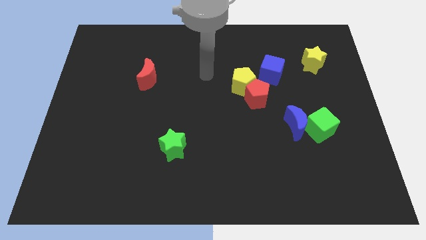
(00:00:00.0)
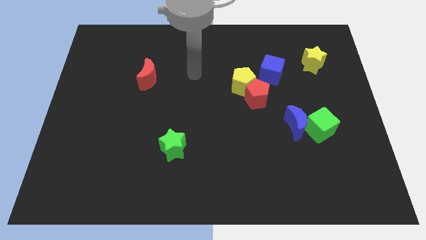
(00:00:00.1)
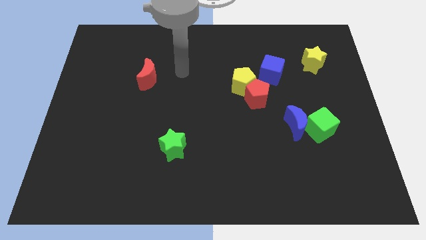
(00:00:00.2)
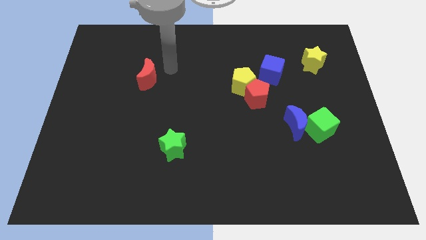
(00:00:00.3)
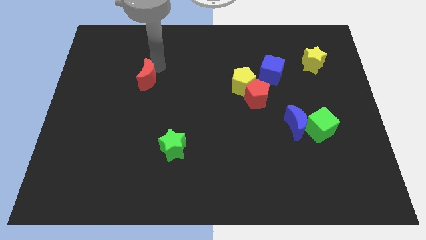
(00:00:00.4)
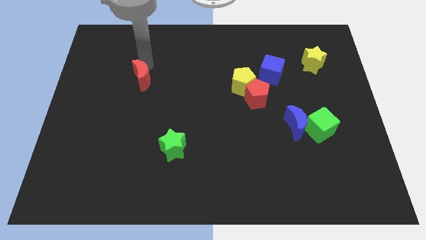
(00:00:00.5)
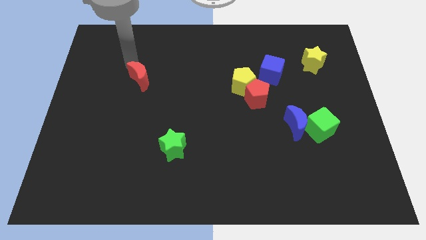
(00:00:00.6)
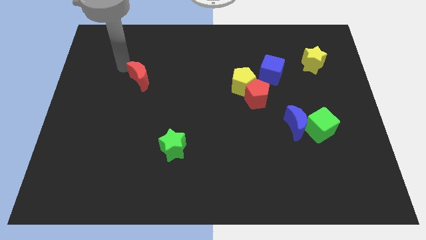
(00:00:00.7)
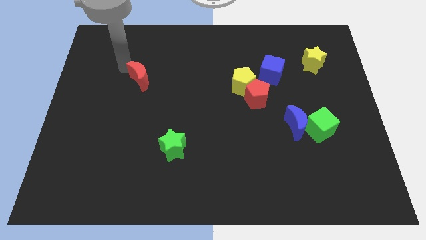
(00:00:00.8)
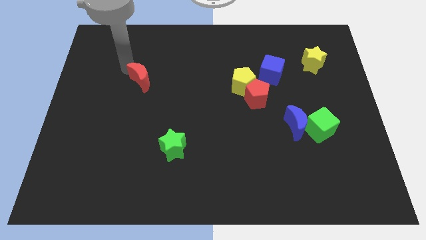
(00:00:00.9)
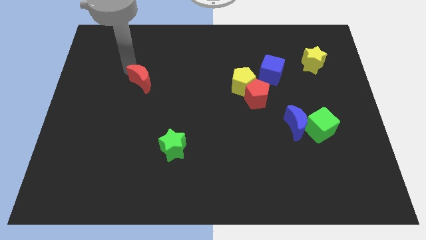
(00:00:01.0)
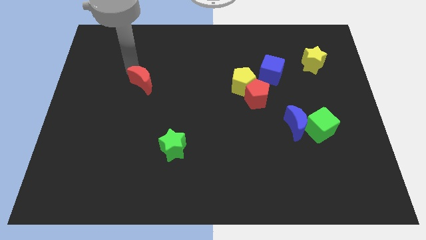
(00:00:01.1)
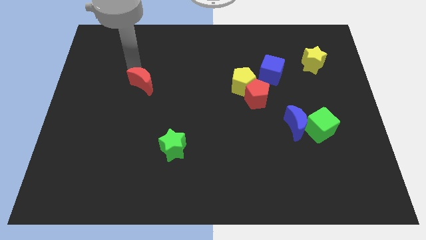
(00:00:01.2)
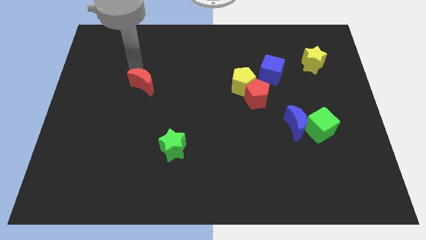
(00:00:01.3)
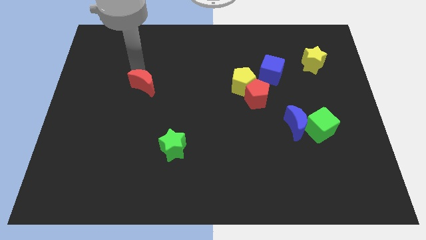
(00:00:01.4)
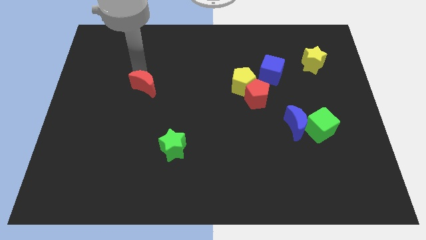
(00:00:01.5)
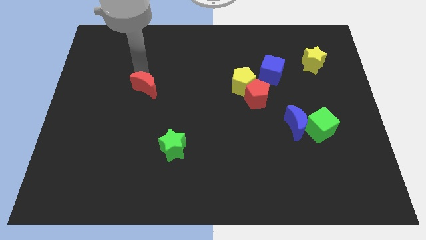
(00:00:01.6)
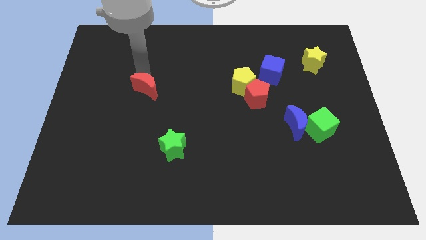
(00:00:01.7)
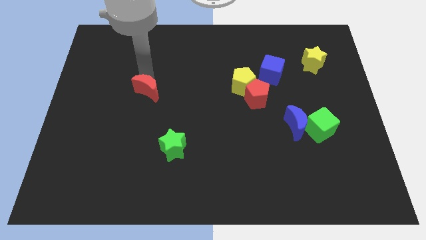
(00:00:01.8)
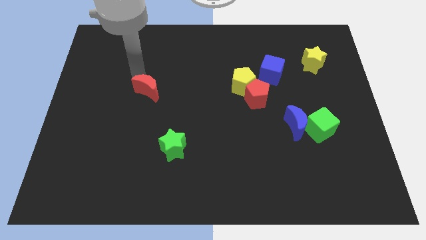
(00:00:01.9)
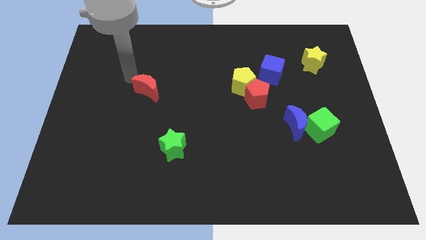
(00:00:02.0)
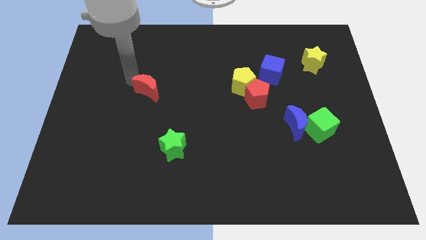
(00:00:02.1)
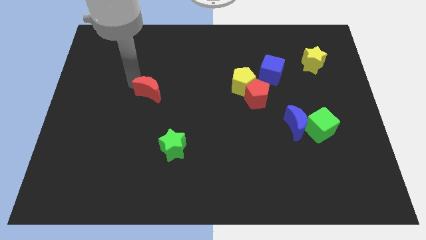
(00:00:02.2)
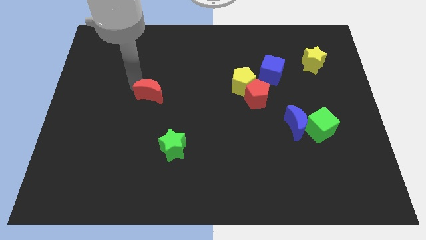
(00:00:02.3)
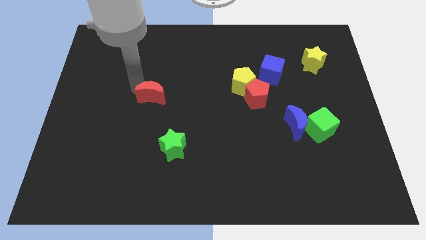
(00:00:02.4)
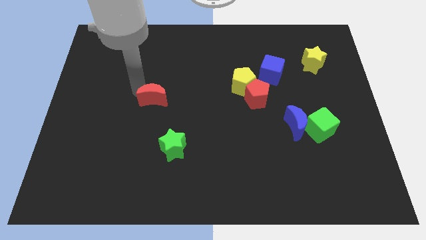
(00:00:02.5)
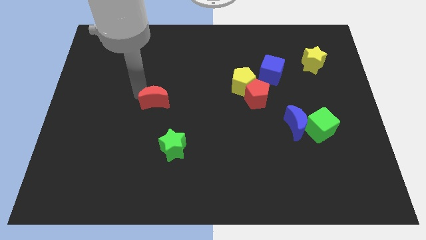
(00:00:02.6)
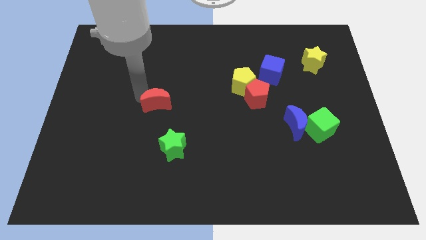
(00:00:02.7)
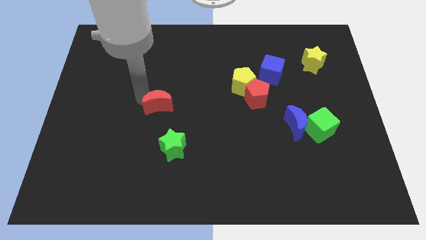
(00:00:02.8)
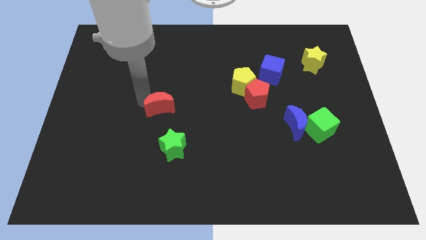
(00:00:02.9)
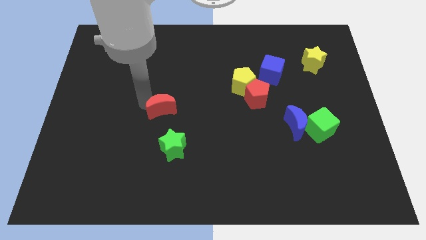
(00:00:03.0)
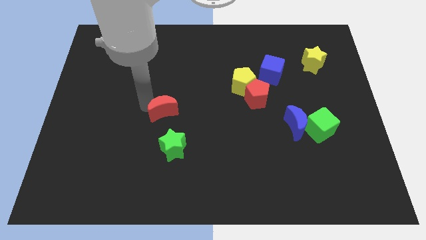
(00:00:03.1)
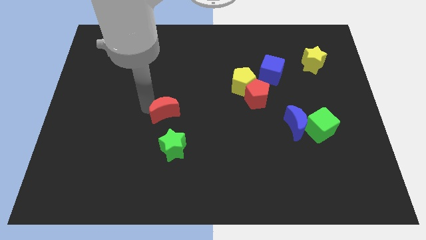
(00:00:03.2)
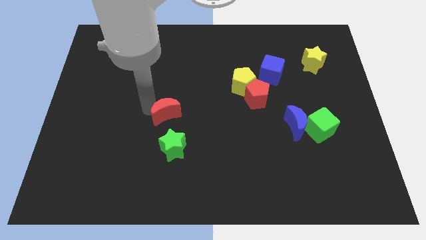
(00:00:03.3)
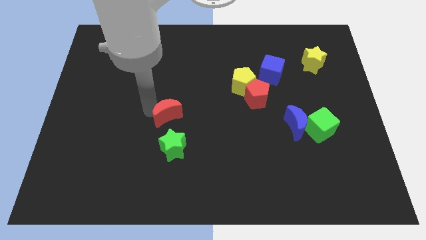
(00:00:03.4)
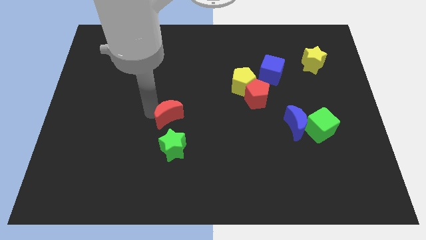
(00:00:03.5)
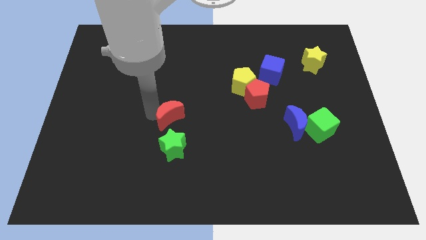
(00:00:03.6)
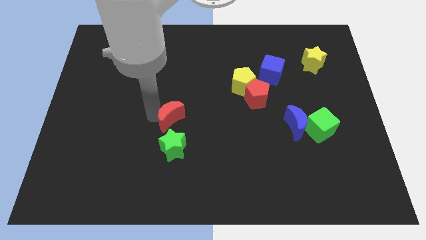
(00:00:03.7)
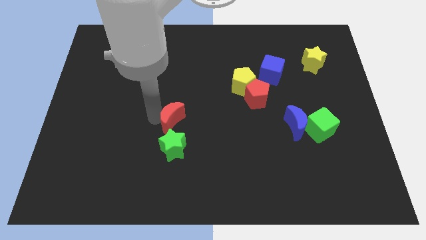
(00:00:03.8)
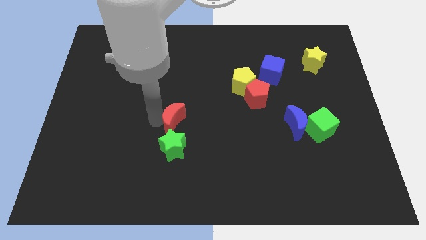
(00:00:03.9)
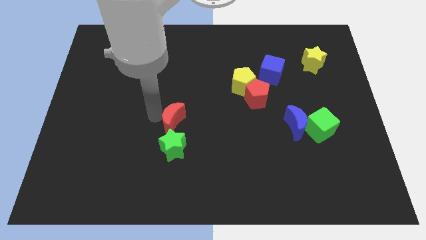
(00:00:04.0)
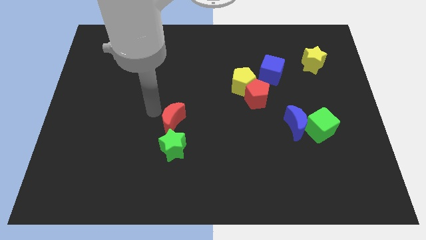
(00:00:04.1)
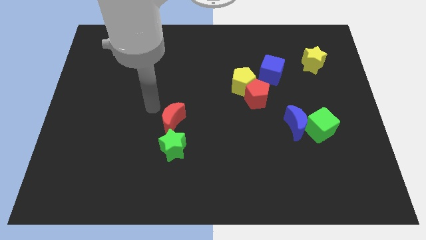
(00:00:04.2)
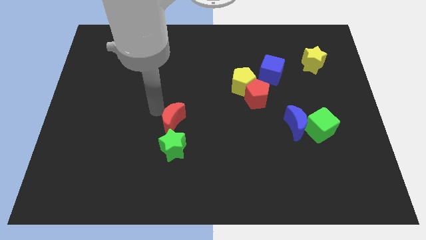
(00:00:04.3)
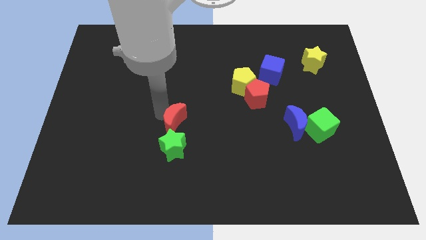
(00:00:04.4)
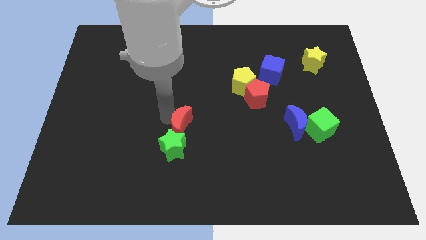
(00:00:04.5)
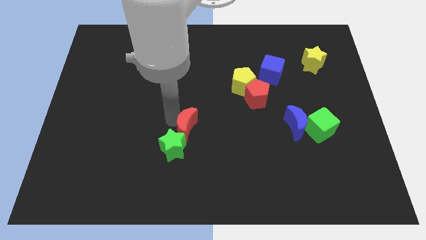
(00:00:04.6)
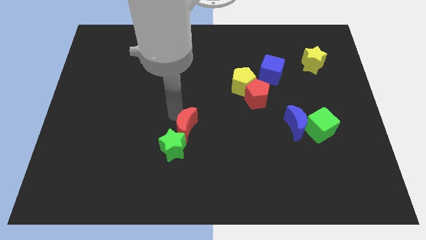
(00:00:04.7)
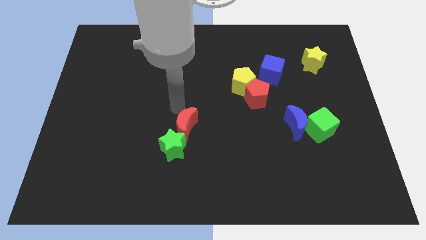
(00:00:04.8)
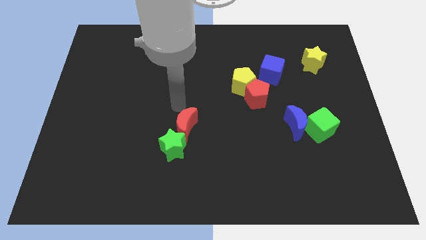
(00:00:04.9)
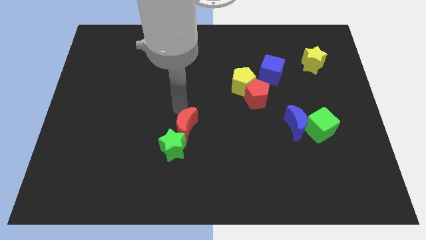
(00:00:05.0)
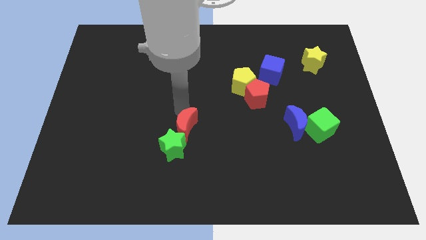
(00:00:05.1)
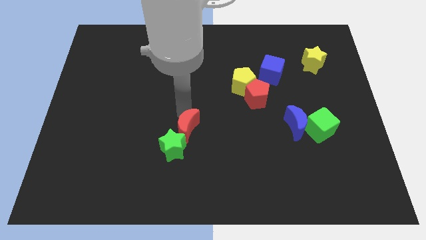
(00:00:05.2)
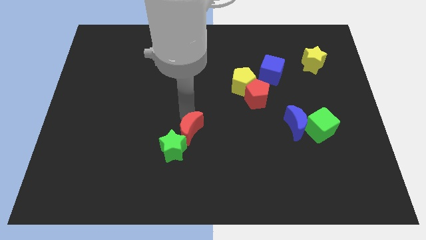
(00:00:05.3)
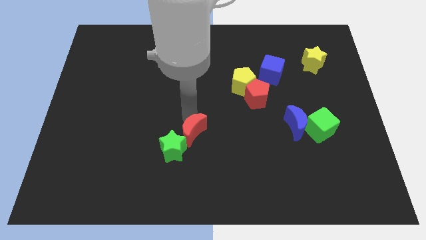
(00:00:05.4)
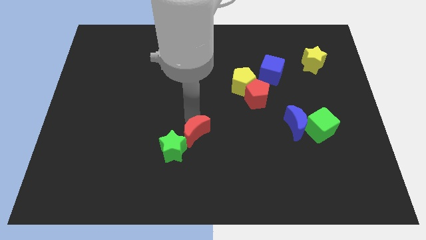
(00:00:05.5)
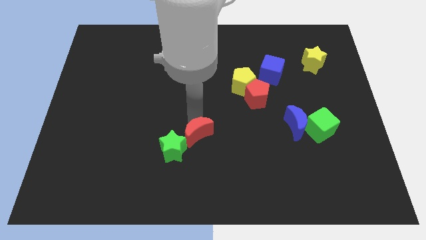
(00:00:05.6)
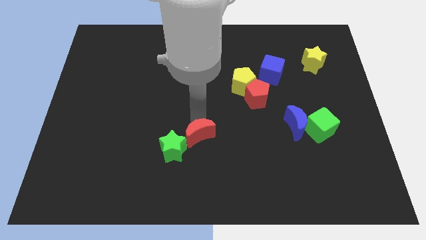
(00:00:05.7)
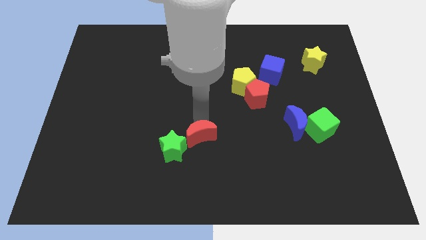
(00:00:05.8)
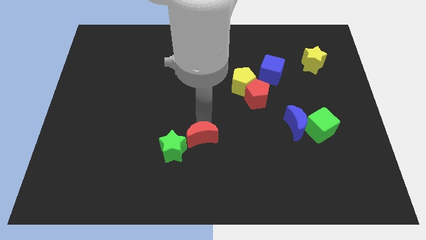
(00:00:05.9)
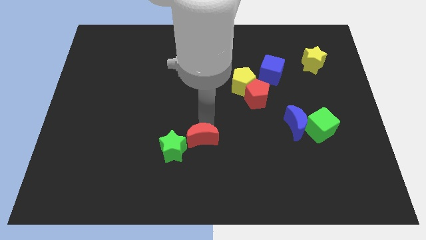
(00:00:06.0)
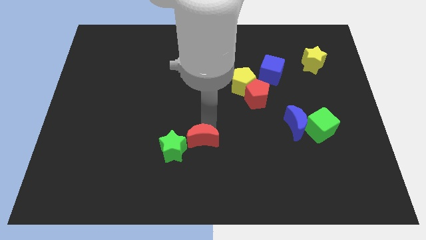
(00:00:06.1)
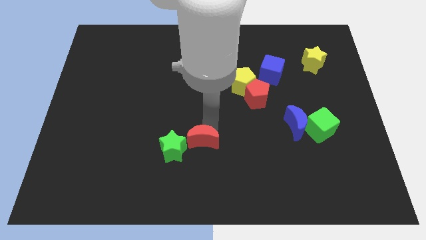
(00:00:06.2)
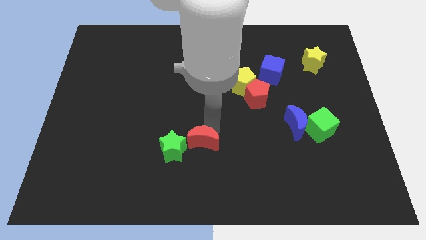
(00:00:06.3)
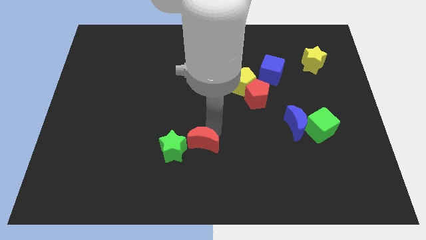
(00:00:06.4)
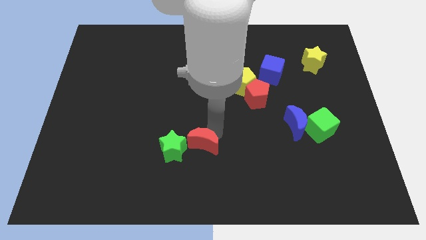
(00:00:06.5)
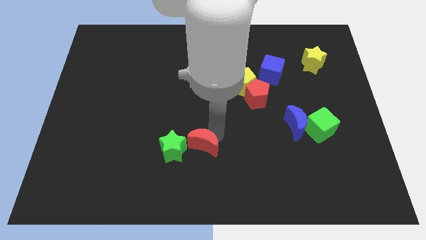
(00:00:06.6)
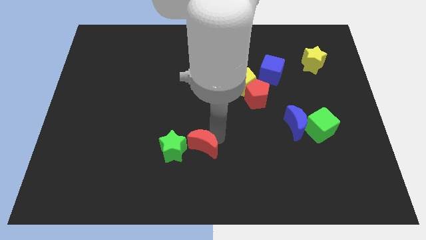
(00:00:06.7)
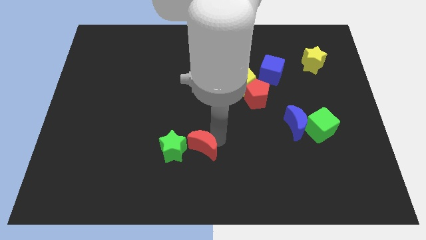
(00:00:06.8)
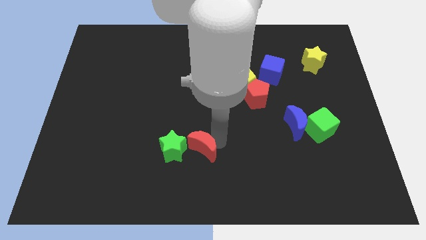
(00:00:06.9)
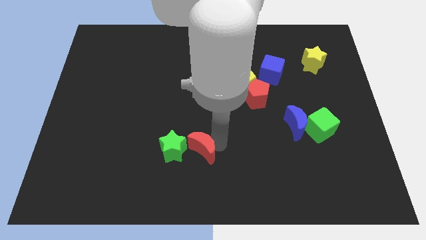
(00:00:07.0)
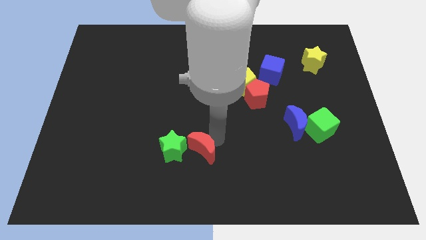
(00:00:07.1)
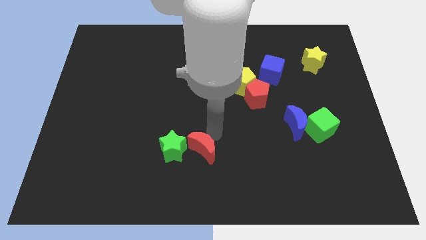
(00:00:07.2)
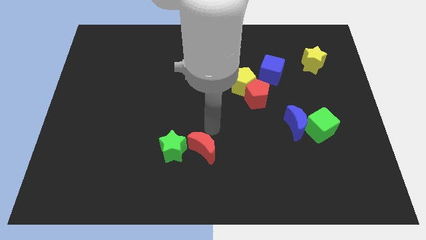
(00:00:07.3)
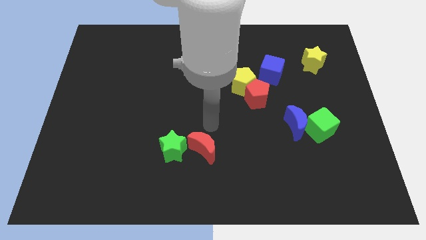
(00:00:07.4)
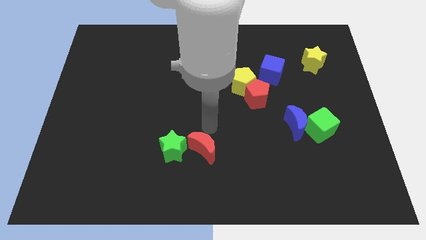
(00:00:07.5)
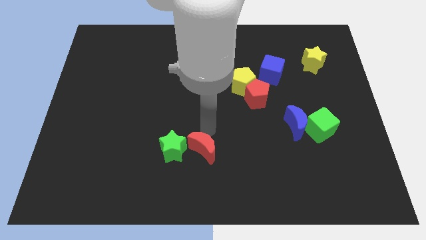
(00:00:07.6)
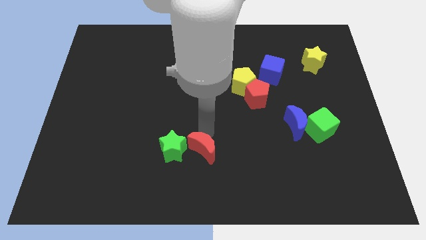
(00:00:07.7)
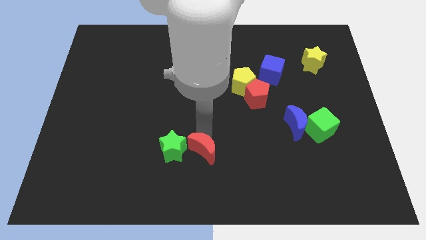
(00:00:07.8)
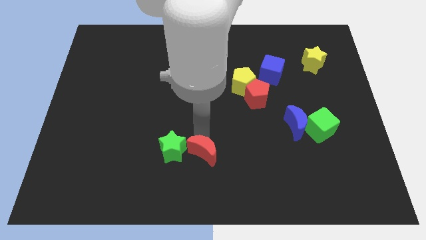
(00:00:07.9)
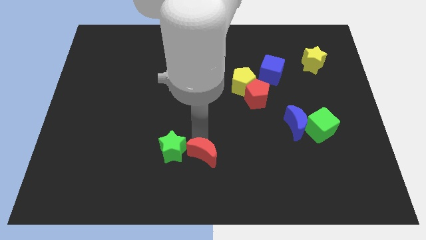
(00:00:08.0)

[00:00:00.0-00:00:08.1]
slide the red moon to the bottom
